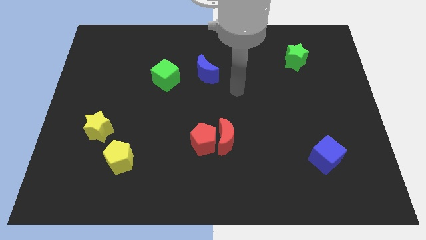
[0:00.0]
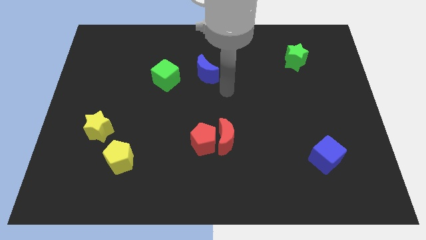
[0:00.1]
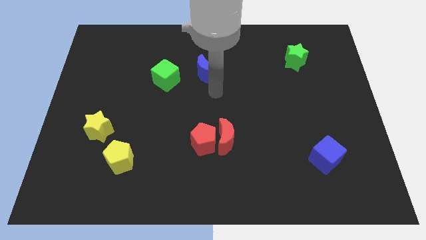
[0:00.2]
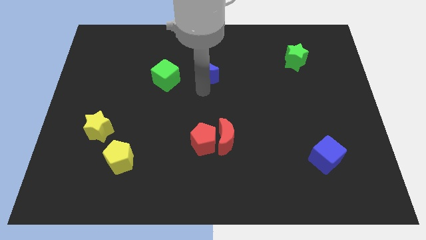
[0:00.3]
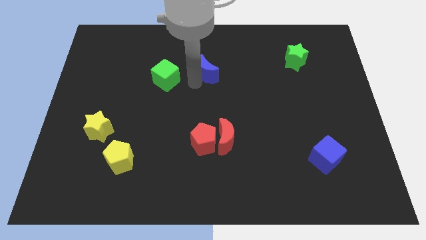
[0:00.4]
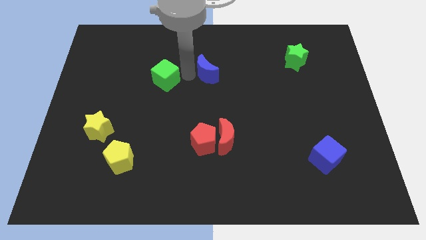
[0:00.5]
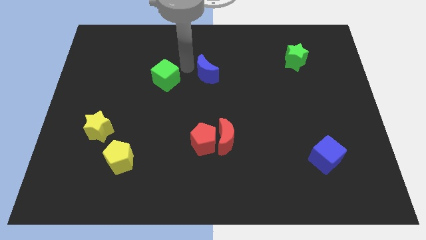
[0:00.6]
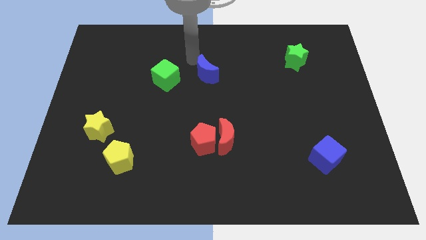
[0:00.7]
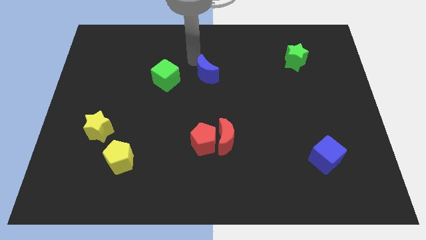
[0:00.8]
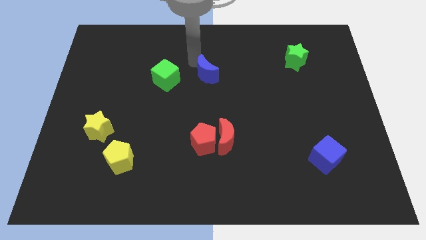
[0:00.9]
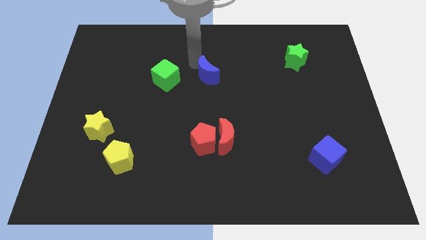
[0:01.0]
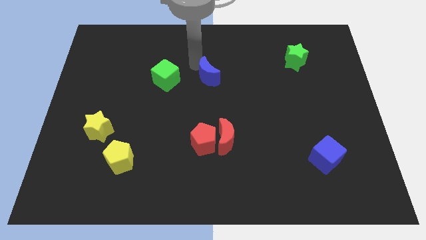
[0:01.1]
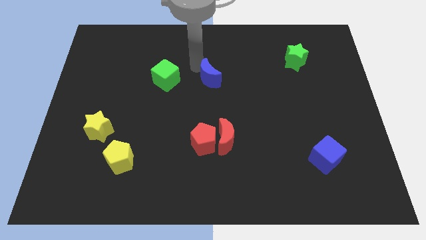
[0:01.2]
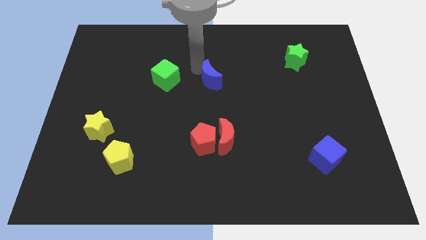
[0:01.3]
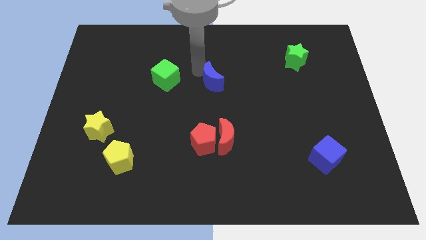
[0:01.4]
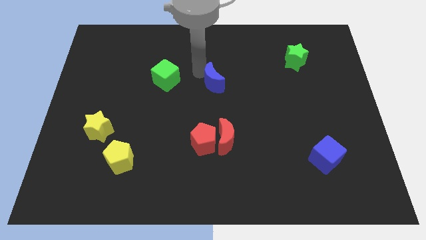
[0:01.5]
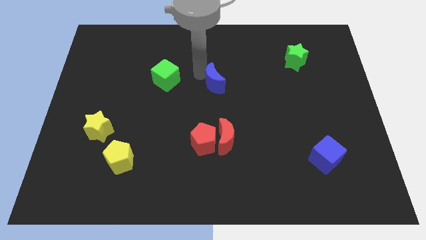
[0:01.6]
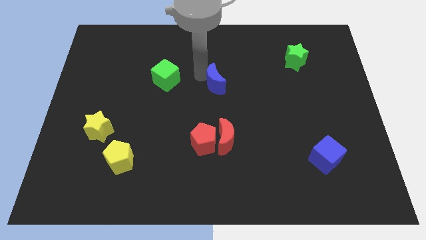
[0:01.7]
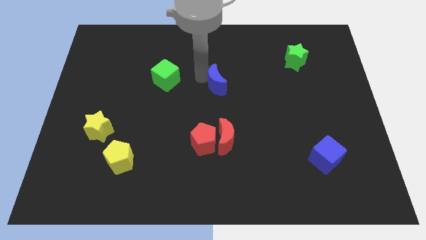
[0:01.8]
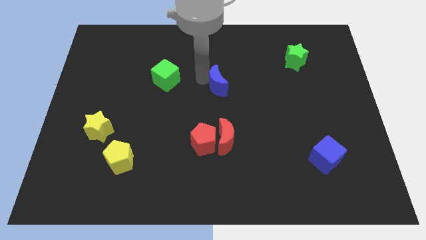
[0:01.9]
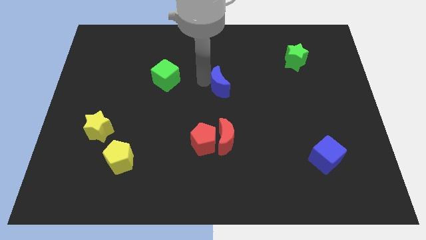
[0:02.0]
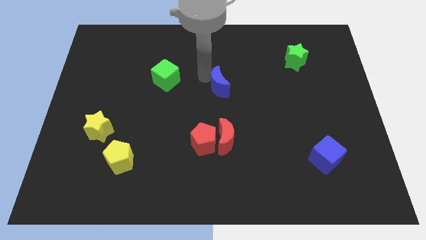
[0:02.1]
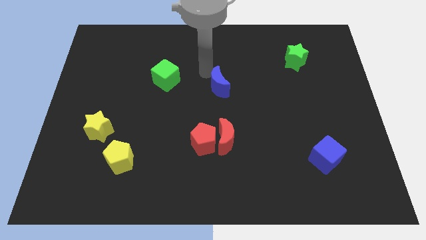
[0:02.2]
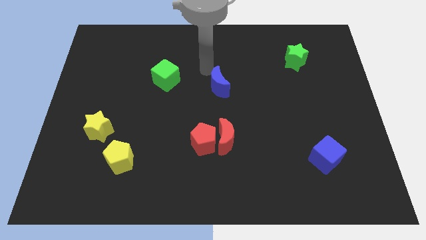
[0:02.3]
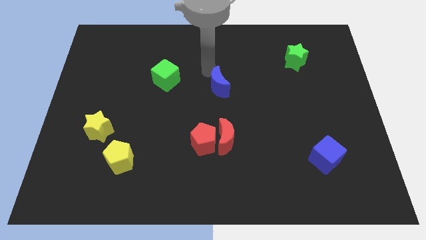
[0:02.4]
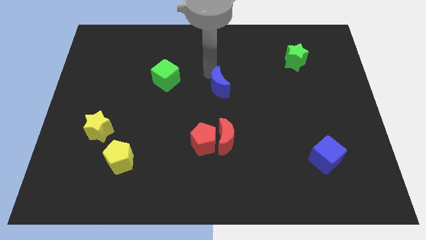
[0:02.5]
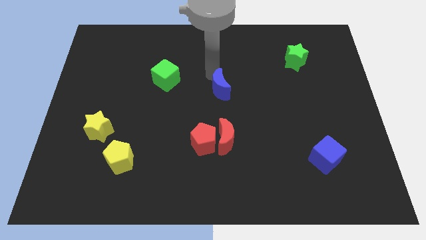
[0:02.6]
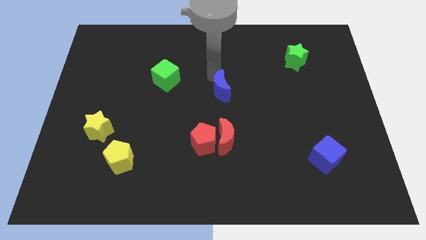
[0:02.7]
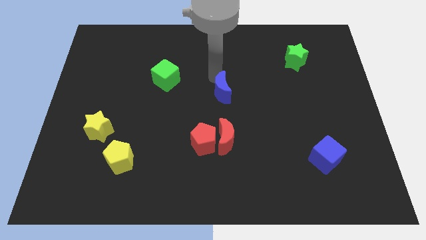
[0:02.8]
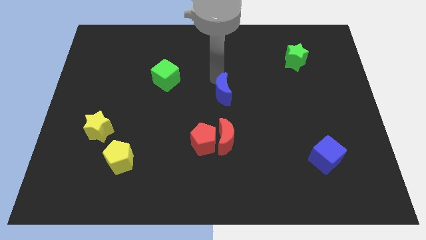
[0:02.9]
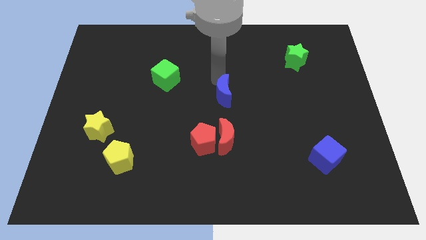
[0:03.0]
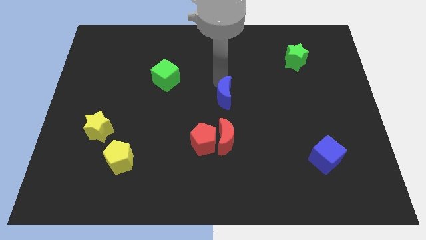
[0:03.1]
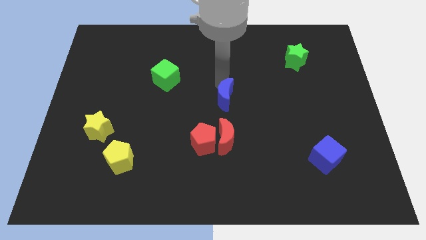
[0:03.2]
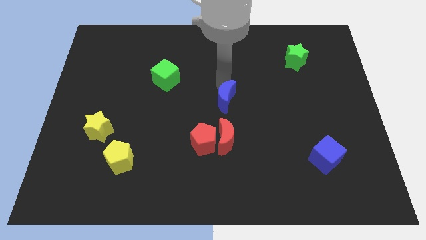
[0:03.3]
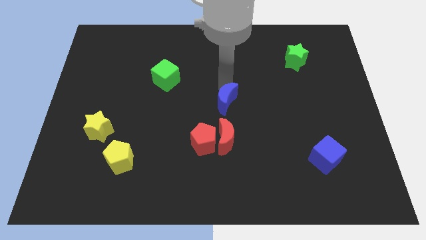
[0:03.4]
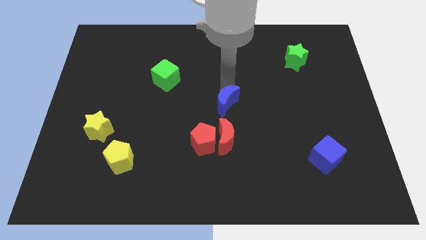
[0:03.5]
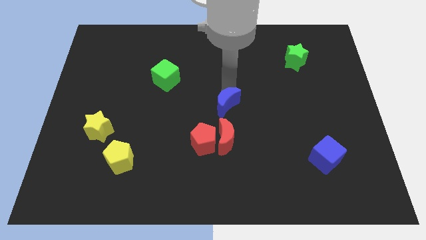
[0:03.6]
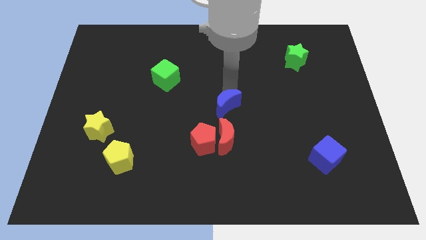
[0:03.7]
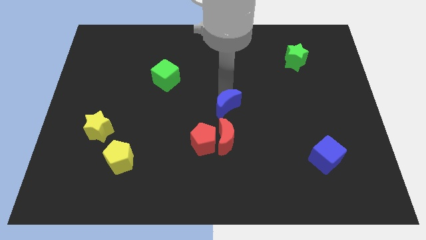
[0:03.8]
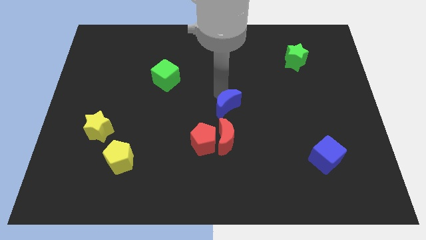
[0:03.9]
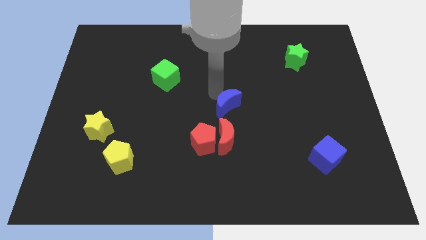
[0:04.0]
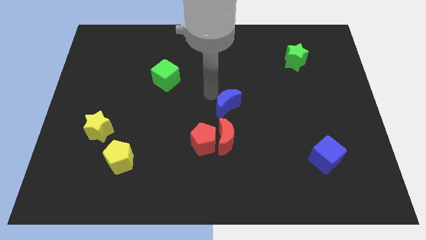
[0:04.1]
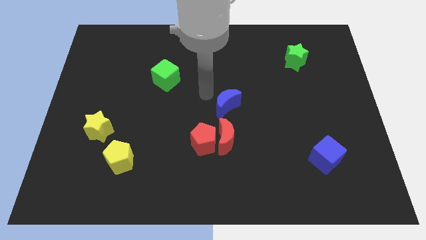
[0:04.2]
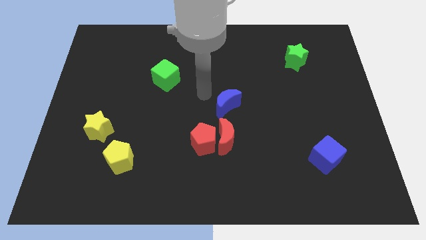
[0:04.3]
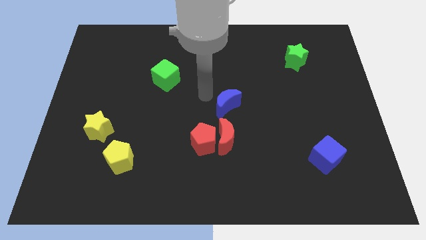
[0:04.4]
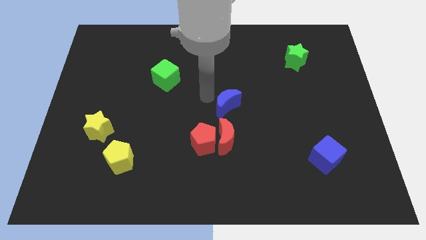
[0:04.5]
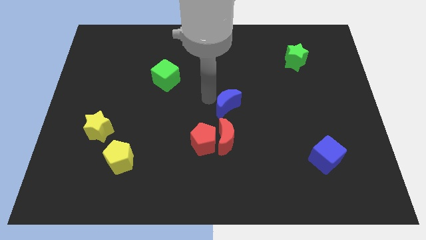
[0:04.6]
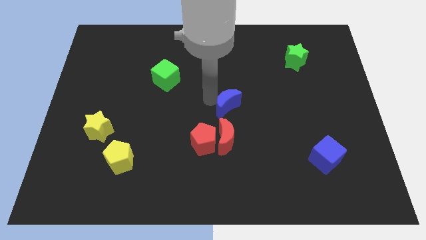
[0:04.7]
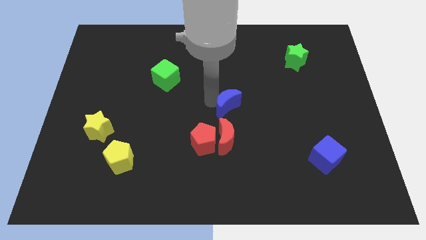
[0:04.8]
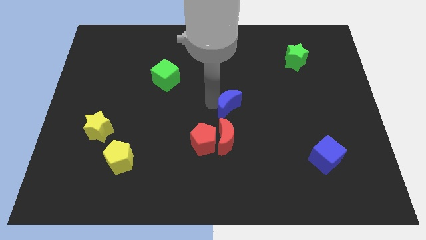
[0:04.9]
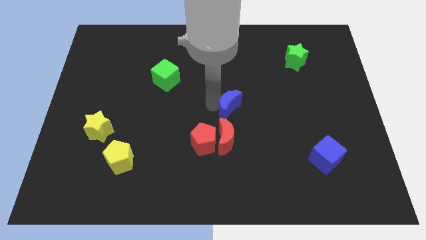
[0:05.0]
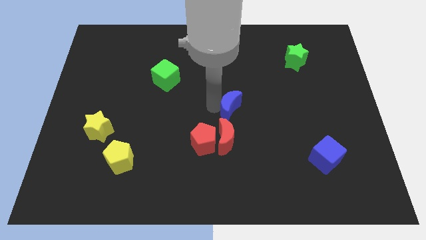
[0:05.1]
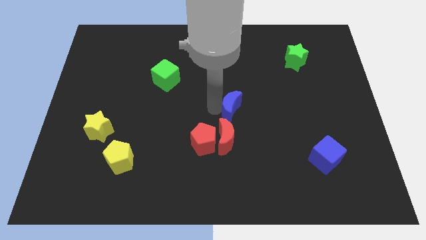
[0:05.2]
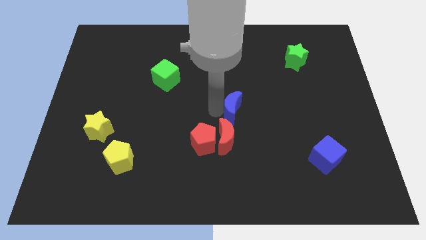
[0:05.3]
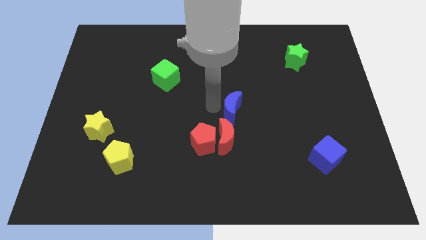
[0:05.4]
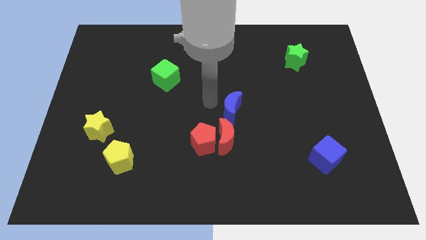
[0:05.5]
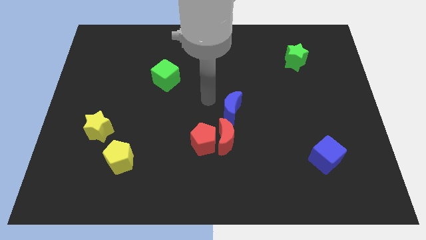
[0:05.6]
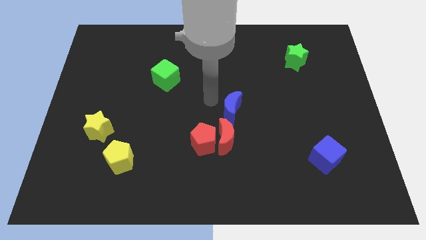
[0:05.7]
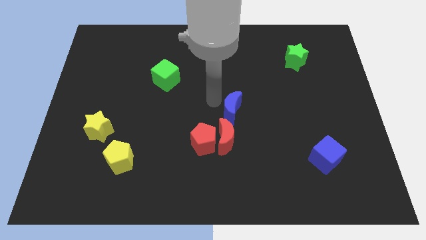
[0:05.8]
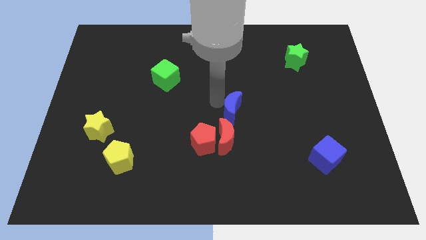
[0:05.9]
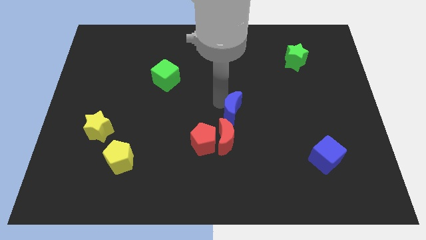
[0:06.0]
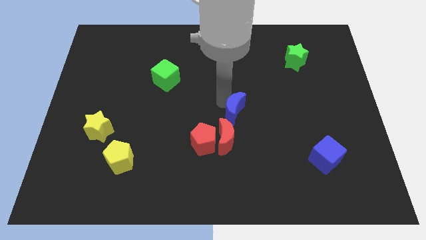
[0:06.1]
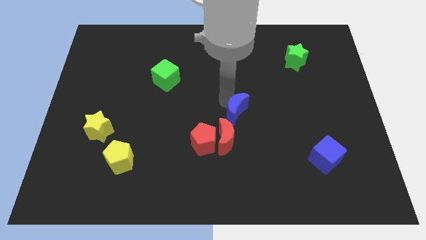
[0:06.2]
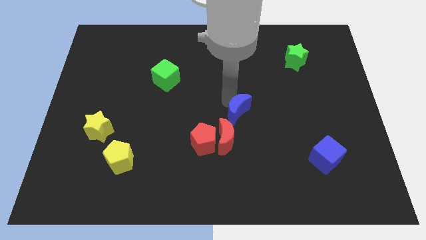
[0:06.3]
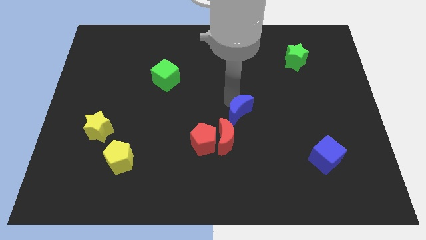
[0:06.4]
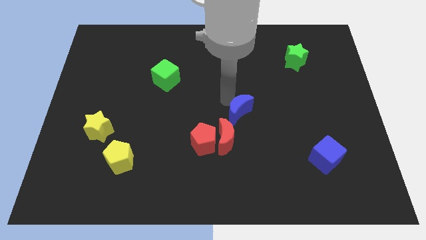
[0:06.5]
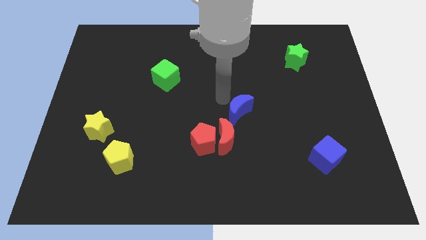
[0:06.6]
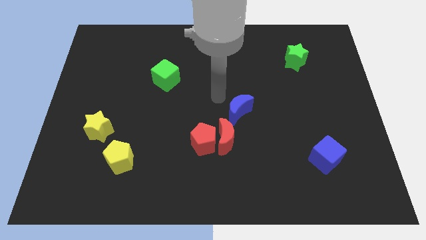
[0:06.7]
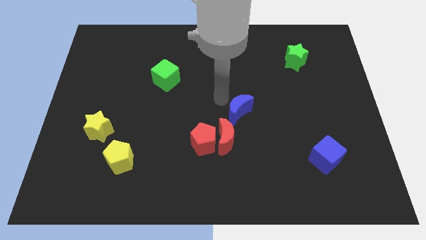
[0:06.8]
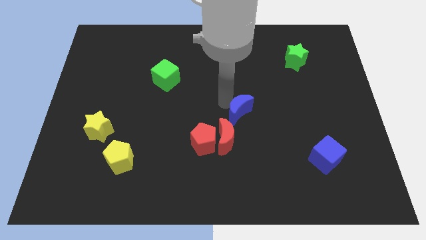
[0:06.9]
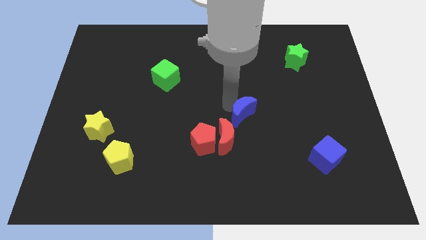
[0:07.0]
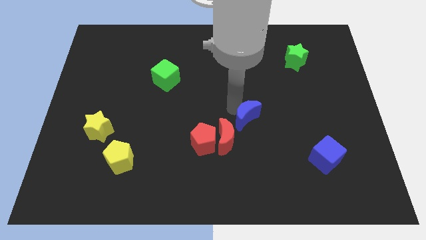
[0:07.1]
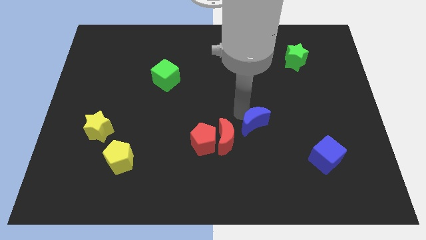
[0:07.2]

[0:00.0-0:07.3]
push the blue moon just right of the red moon
